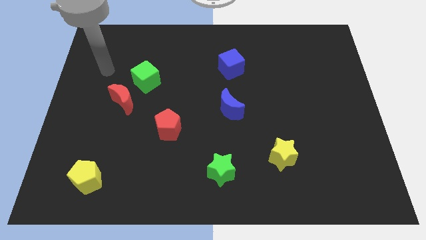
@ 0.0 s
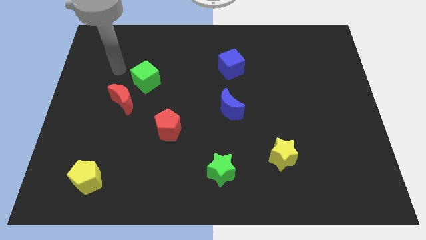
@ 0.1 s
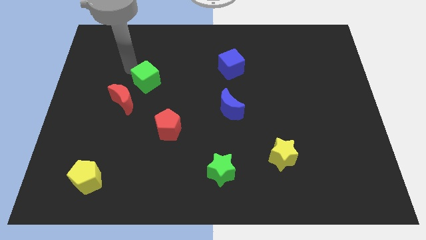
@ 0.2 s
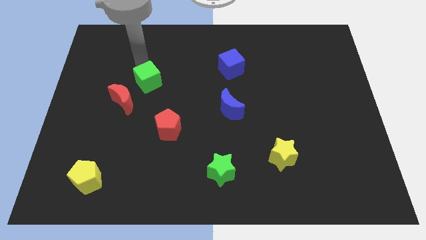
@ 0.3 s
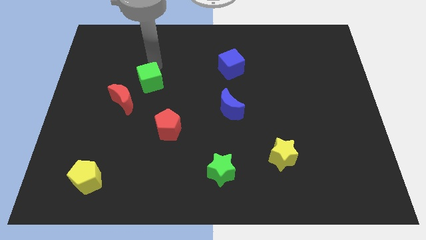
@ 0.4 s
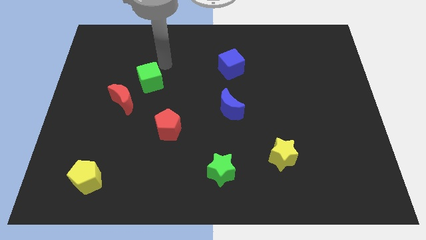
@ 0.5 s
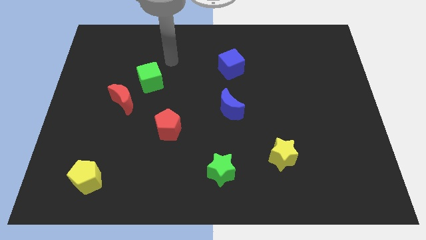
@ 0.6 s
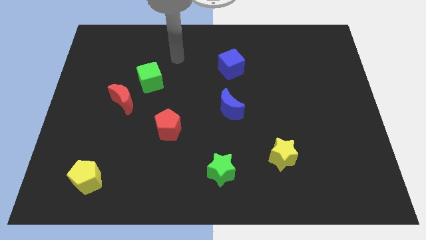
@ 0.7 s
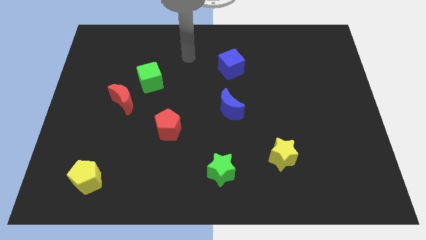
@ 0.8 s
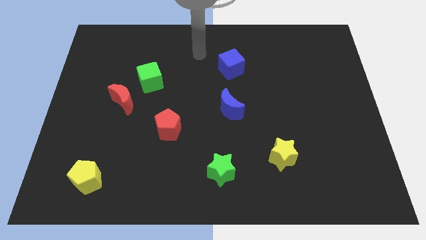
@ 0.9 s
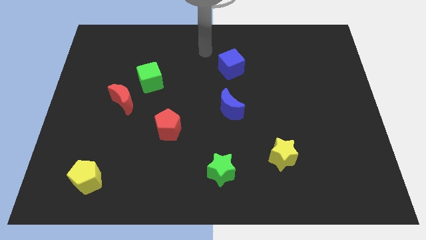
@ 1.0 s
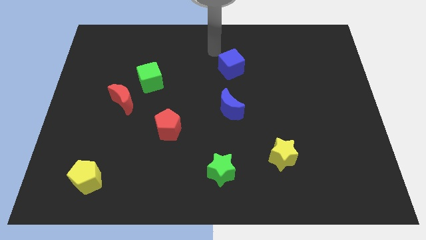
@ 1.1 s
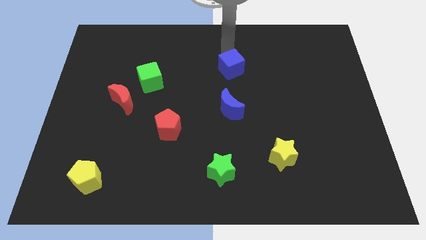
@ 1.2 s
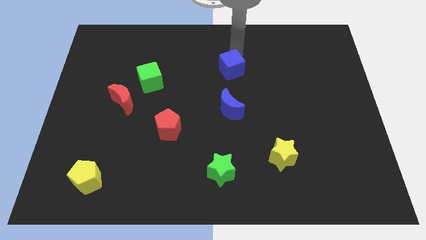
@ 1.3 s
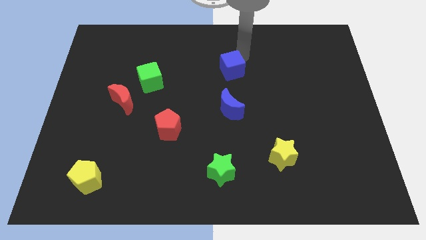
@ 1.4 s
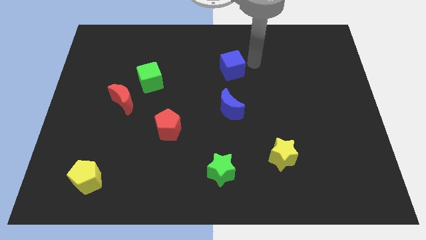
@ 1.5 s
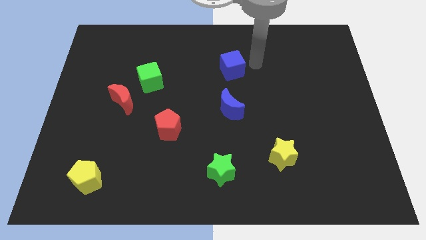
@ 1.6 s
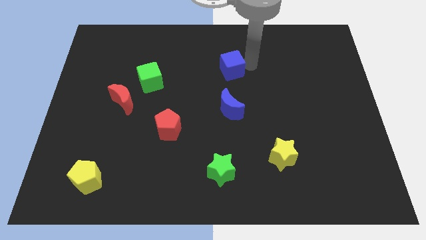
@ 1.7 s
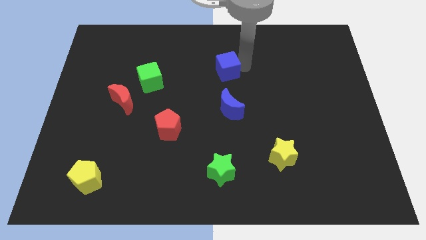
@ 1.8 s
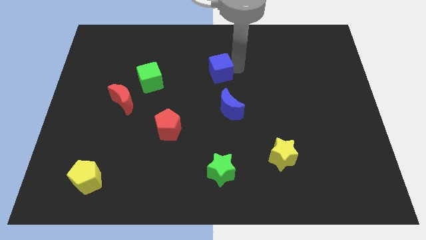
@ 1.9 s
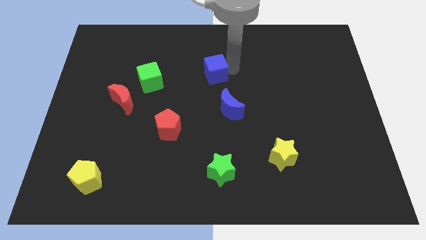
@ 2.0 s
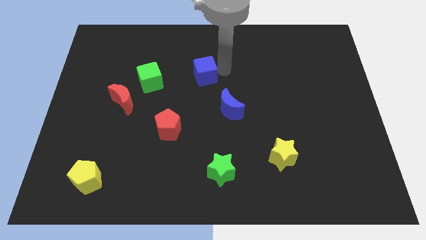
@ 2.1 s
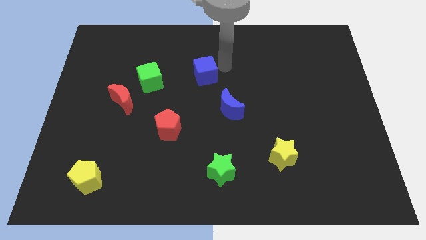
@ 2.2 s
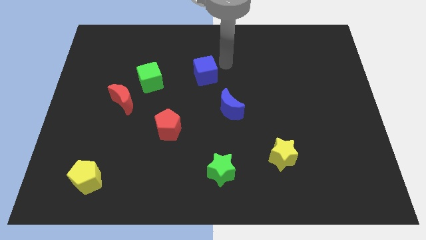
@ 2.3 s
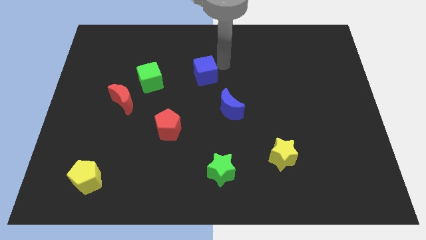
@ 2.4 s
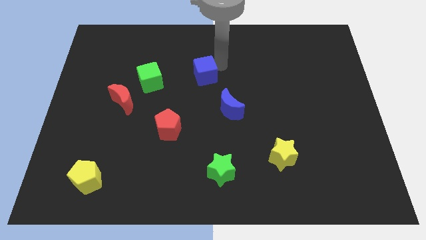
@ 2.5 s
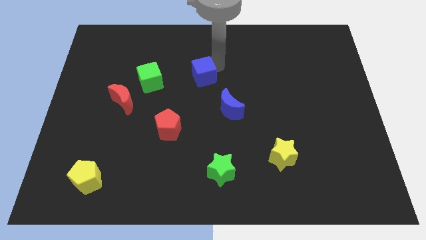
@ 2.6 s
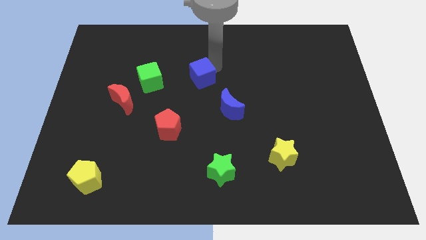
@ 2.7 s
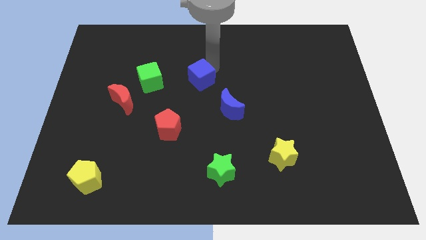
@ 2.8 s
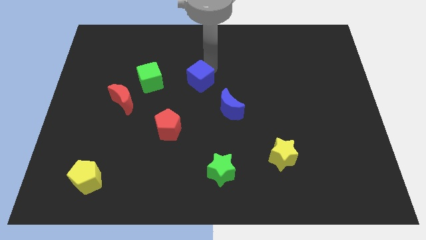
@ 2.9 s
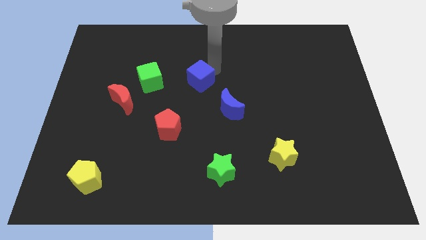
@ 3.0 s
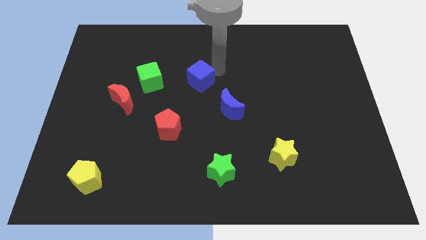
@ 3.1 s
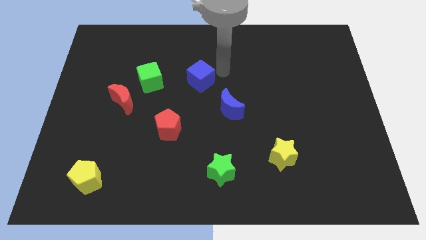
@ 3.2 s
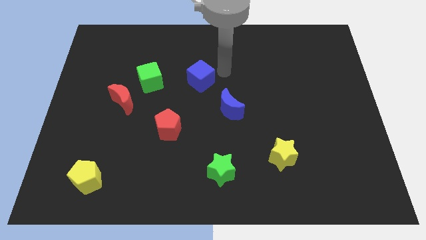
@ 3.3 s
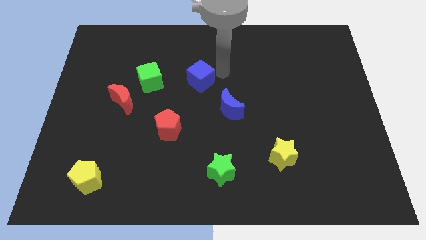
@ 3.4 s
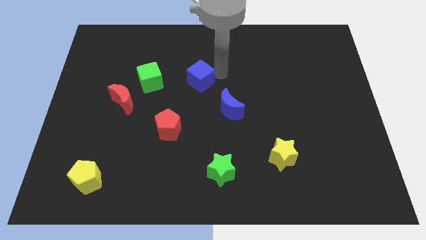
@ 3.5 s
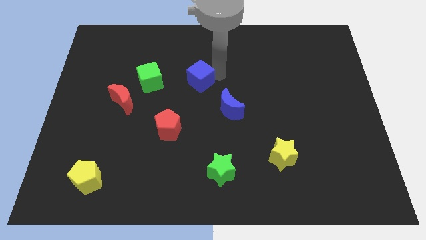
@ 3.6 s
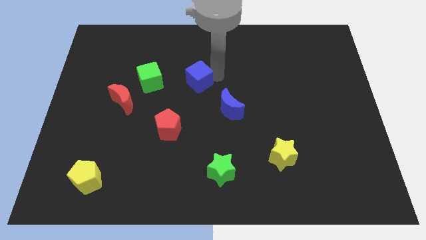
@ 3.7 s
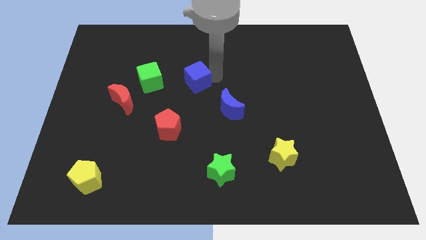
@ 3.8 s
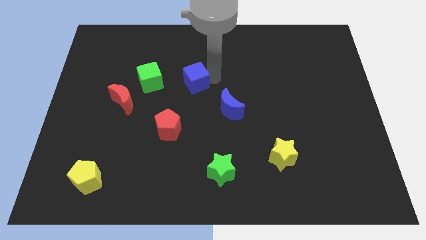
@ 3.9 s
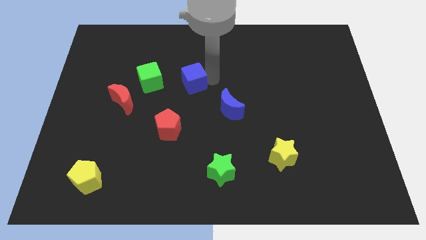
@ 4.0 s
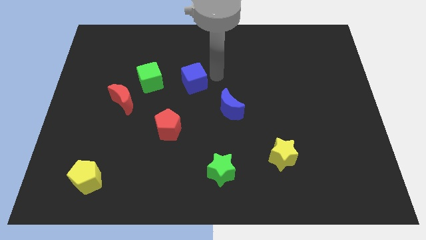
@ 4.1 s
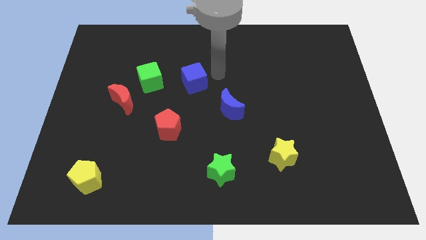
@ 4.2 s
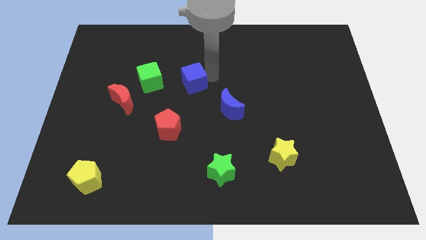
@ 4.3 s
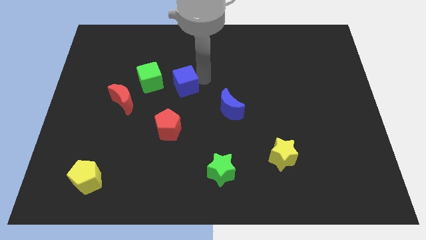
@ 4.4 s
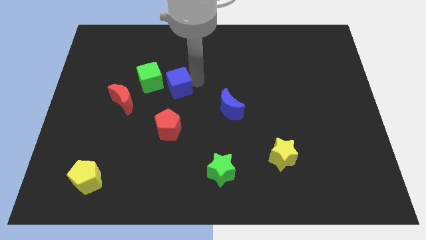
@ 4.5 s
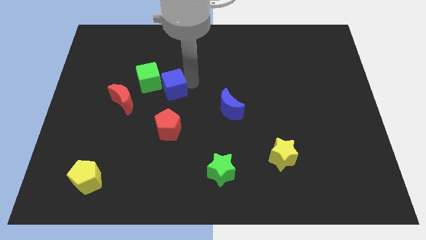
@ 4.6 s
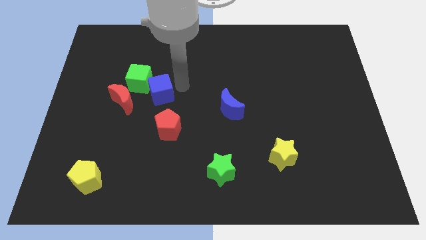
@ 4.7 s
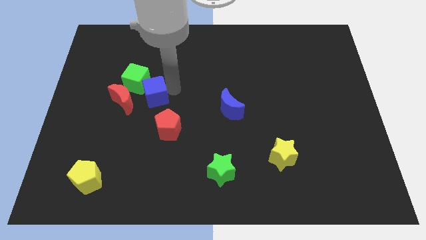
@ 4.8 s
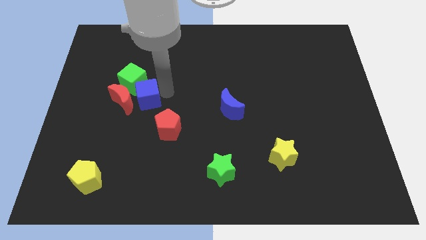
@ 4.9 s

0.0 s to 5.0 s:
slide the blue cube to the red moon

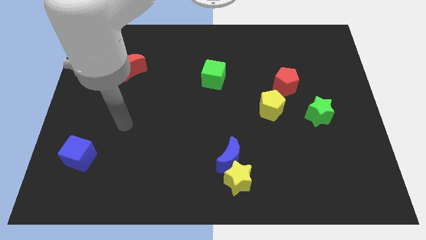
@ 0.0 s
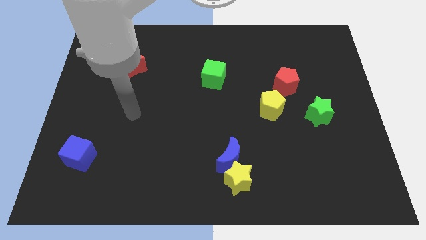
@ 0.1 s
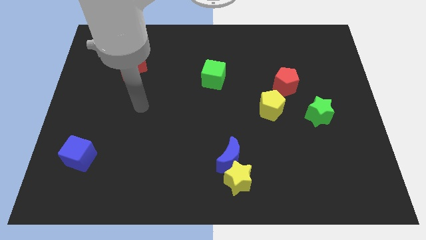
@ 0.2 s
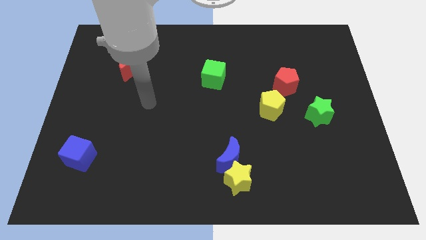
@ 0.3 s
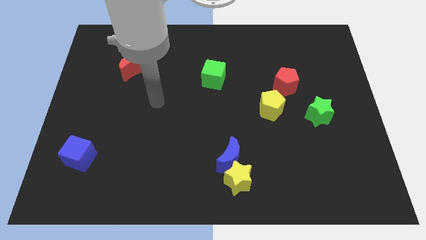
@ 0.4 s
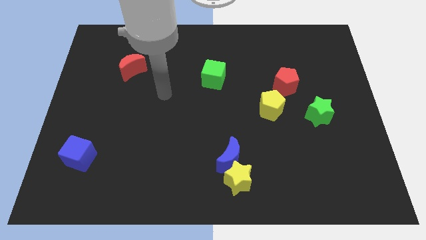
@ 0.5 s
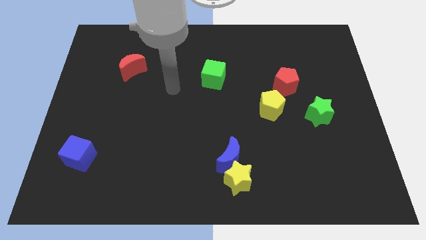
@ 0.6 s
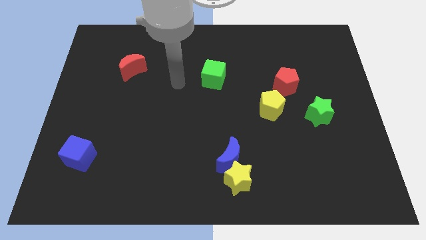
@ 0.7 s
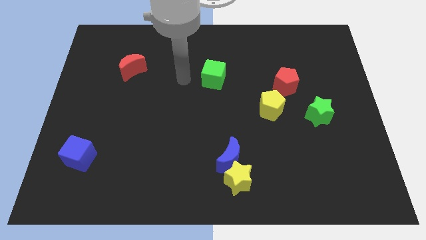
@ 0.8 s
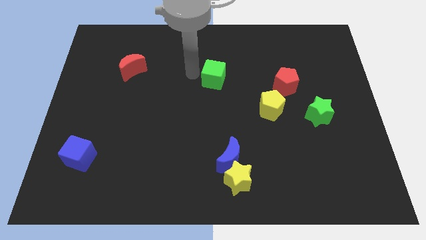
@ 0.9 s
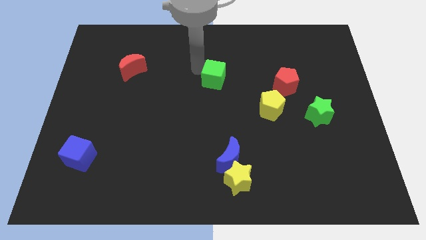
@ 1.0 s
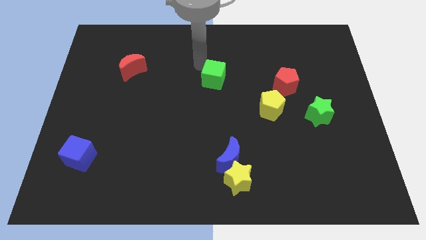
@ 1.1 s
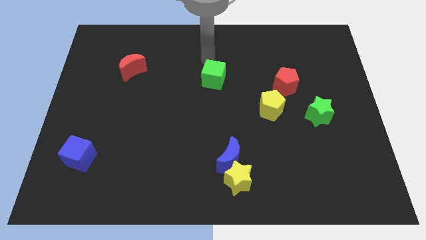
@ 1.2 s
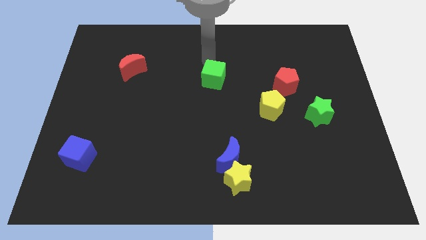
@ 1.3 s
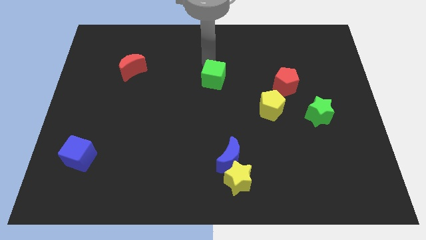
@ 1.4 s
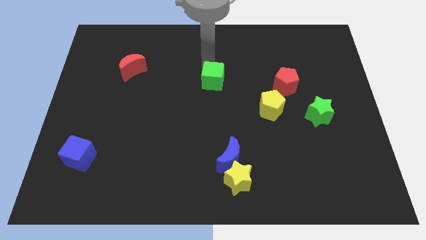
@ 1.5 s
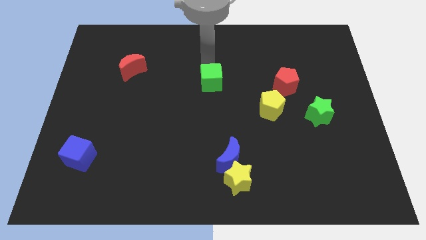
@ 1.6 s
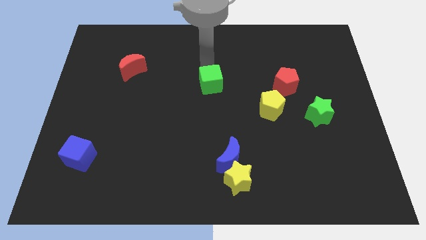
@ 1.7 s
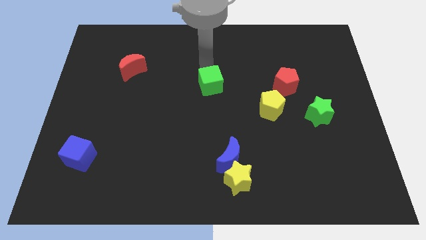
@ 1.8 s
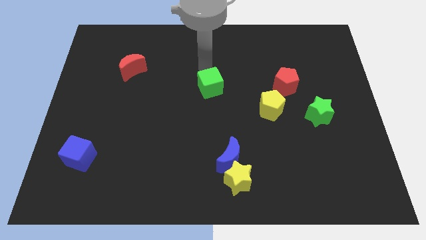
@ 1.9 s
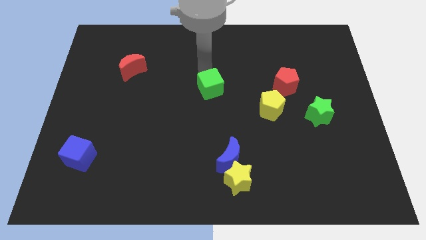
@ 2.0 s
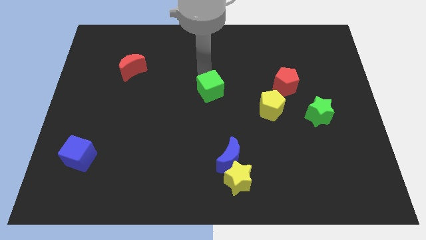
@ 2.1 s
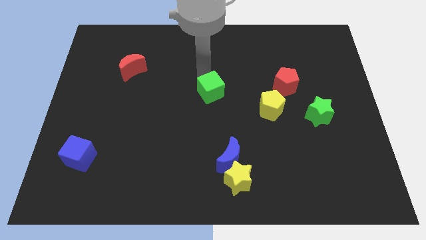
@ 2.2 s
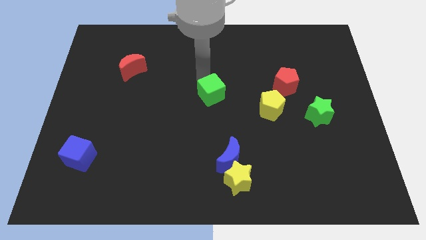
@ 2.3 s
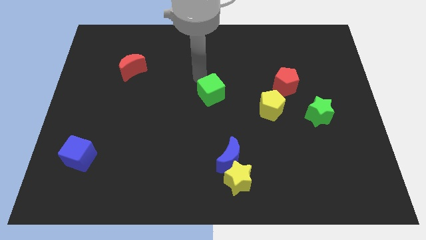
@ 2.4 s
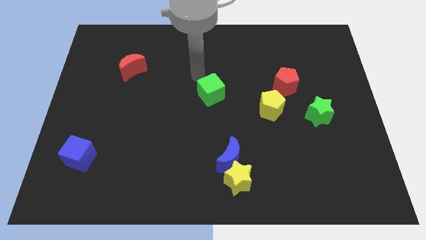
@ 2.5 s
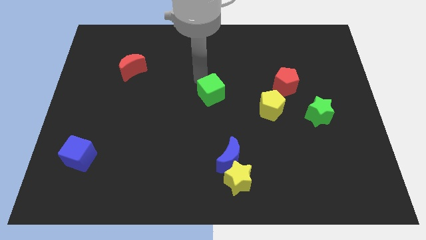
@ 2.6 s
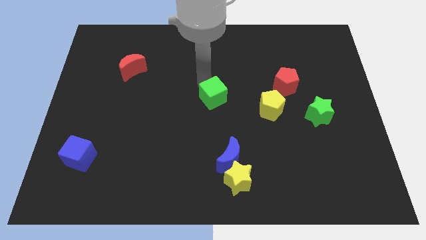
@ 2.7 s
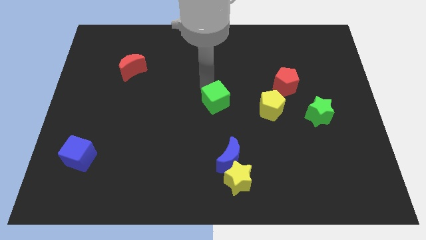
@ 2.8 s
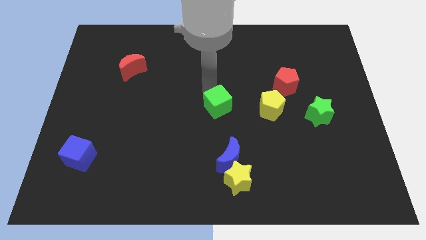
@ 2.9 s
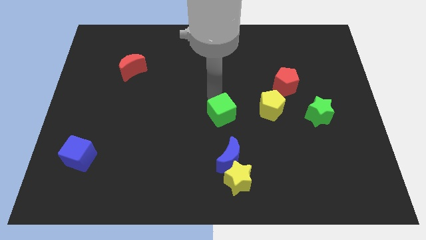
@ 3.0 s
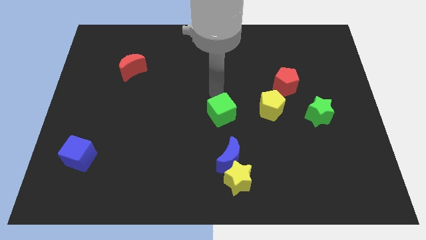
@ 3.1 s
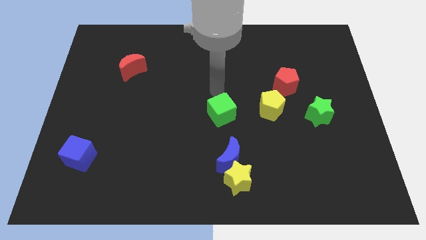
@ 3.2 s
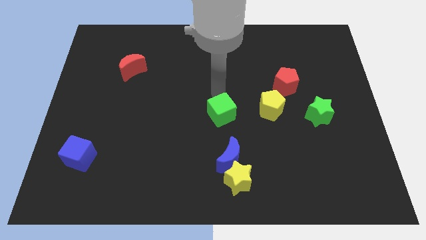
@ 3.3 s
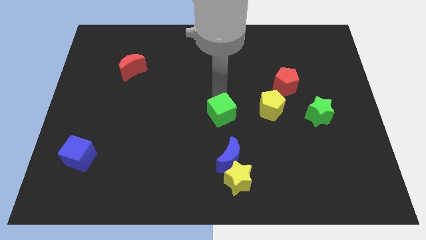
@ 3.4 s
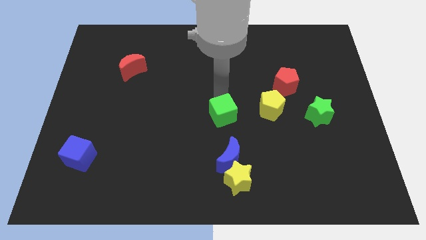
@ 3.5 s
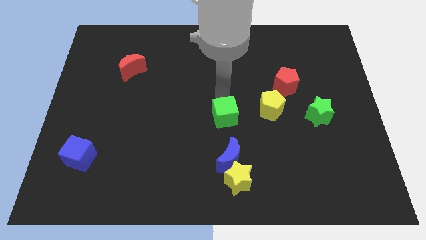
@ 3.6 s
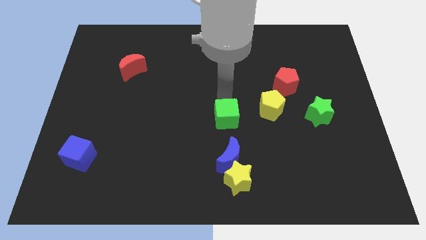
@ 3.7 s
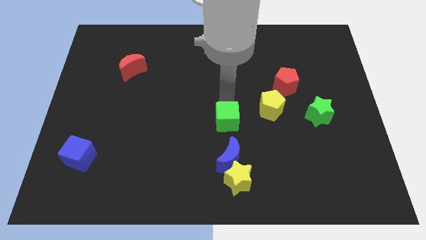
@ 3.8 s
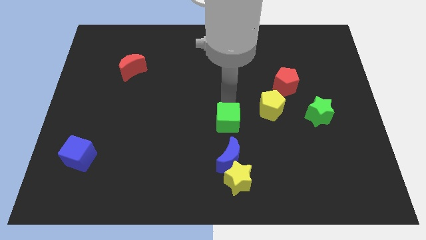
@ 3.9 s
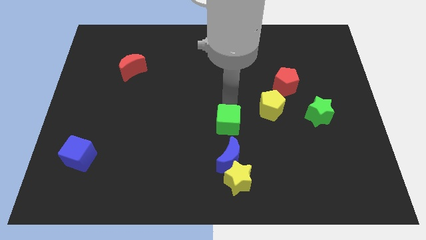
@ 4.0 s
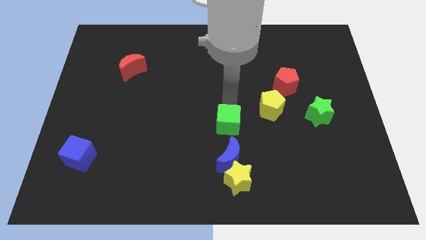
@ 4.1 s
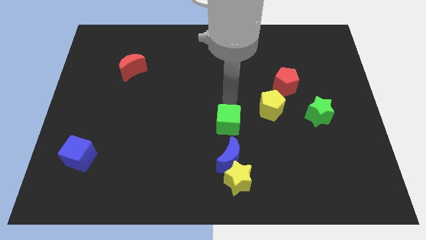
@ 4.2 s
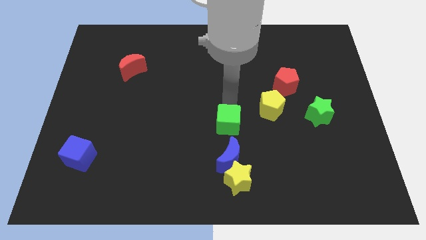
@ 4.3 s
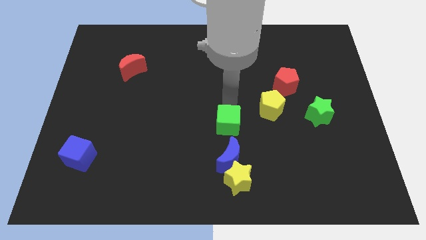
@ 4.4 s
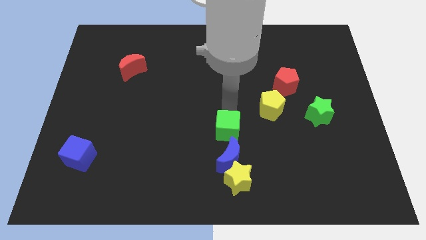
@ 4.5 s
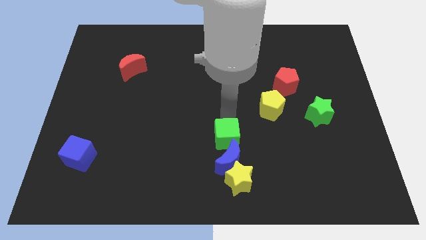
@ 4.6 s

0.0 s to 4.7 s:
push the green cube next to the blue moon
